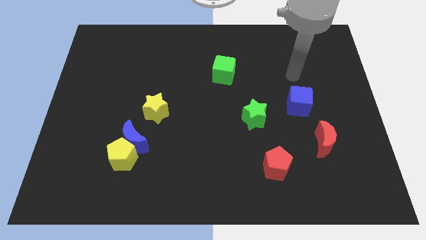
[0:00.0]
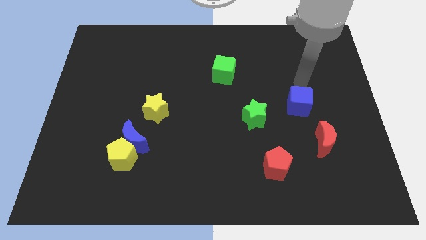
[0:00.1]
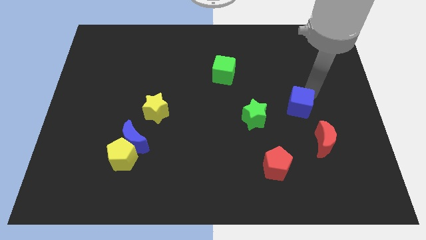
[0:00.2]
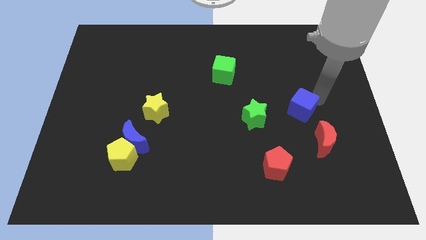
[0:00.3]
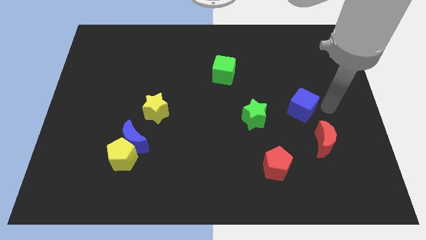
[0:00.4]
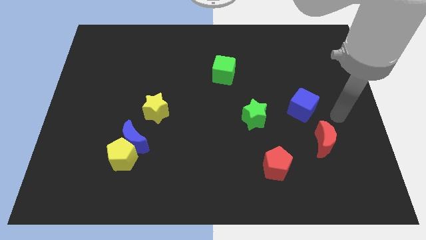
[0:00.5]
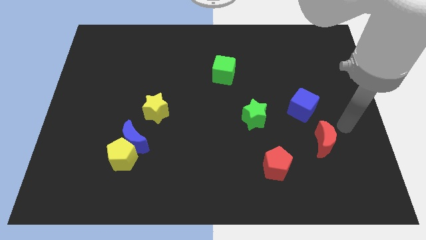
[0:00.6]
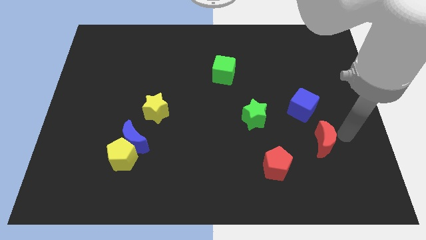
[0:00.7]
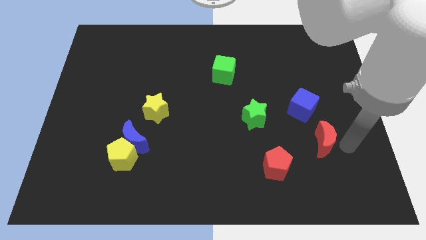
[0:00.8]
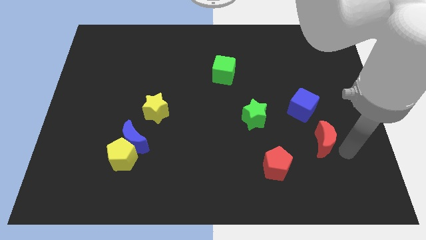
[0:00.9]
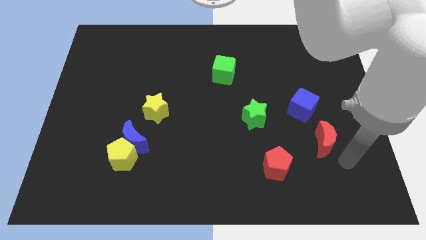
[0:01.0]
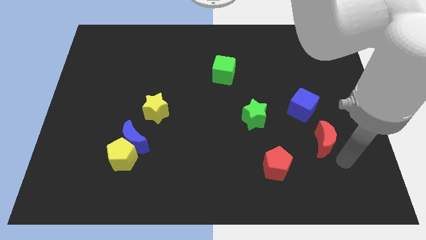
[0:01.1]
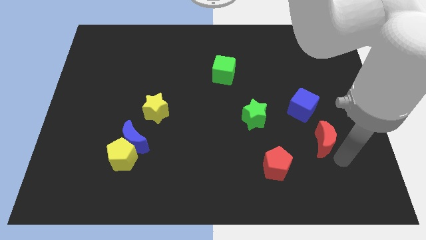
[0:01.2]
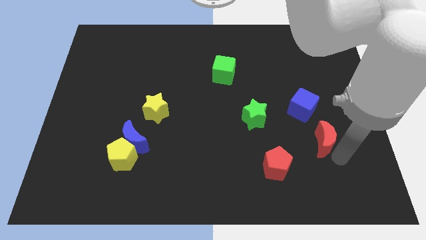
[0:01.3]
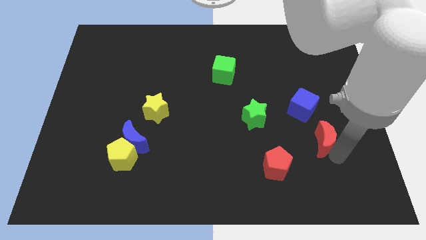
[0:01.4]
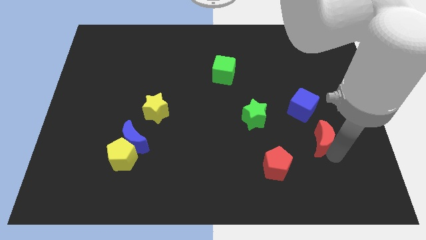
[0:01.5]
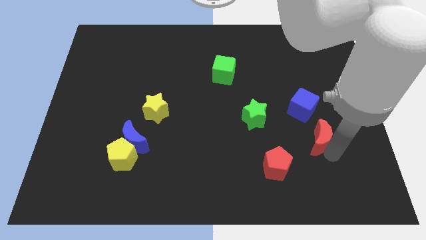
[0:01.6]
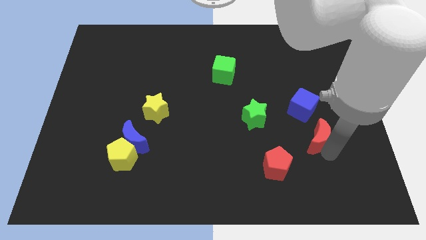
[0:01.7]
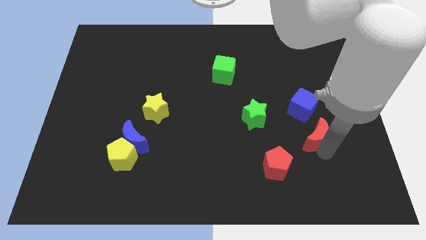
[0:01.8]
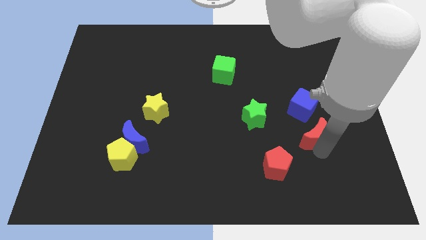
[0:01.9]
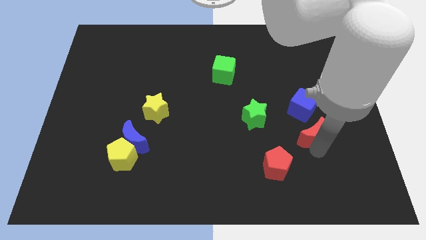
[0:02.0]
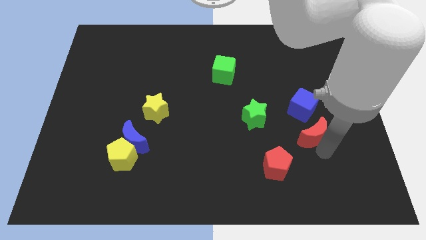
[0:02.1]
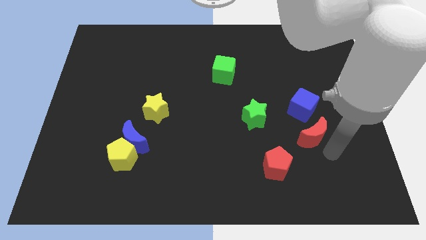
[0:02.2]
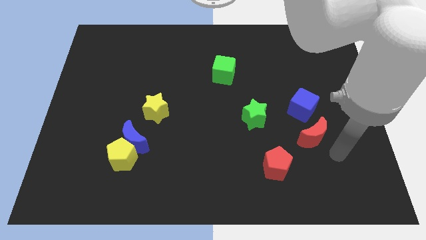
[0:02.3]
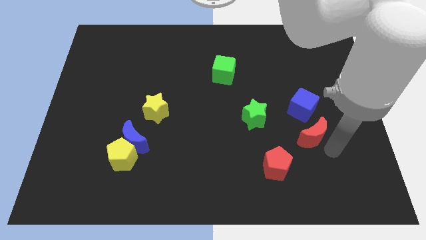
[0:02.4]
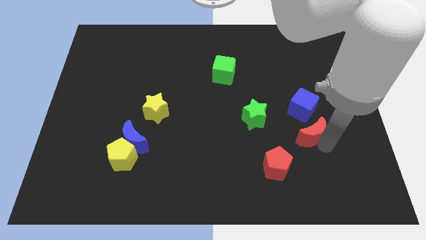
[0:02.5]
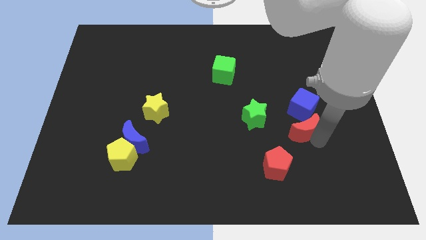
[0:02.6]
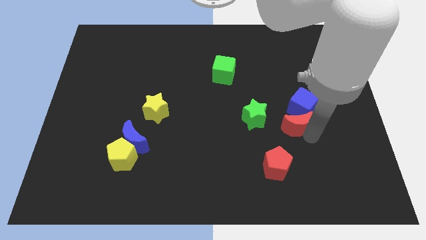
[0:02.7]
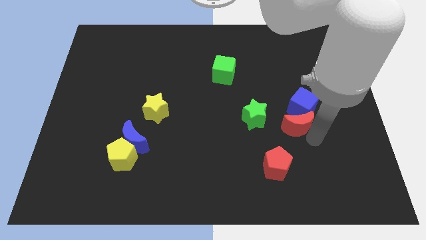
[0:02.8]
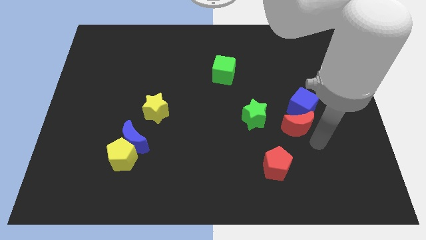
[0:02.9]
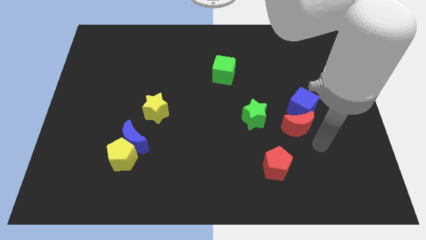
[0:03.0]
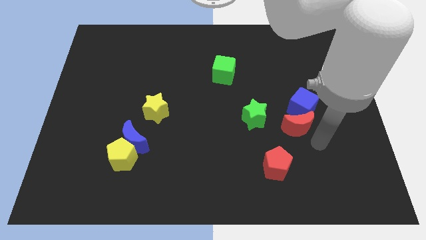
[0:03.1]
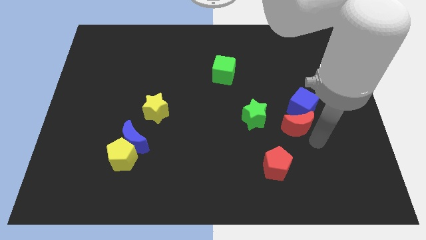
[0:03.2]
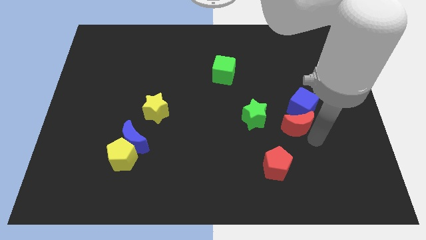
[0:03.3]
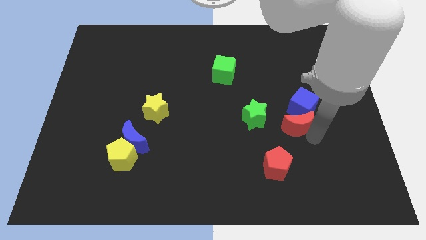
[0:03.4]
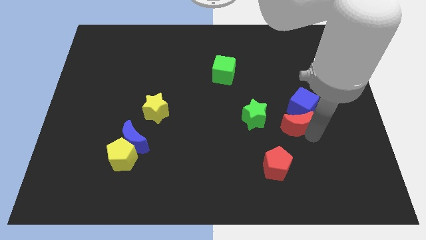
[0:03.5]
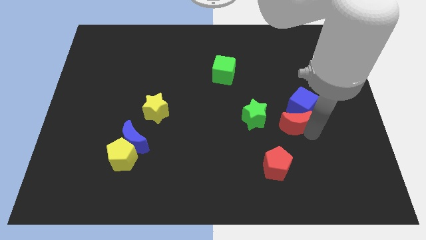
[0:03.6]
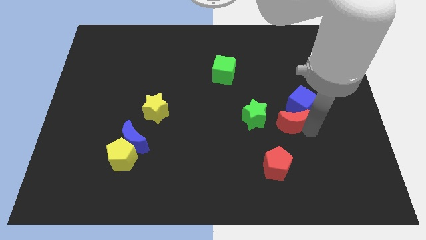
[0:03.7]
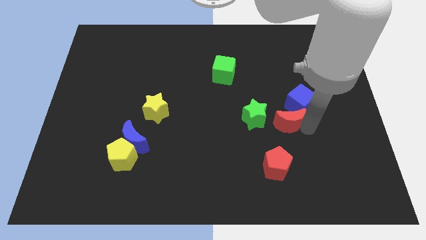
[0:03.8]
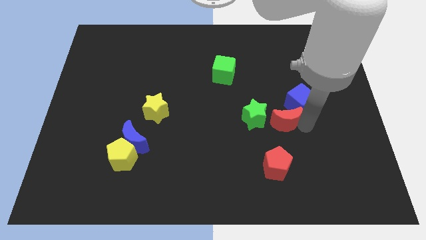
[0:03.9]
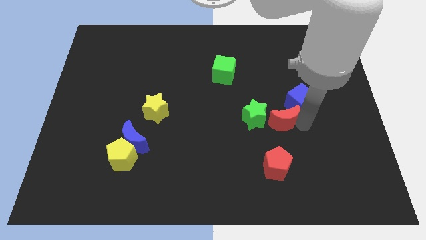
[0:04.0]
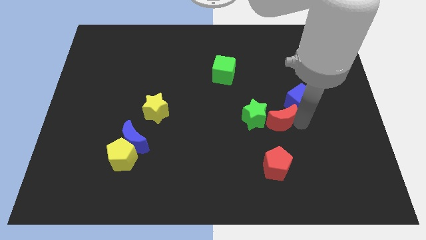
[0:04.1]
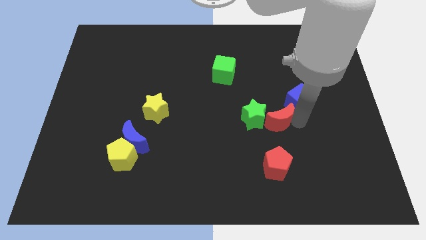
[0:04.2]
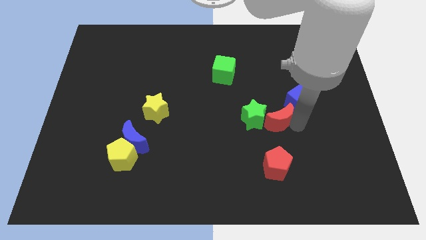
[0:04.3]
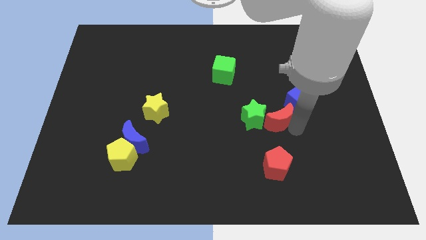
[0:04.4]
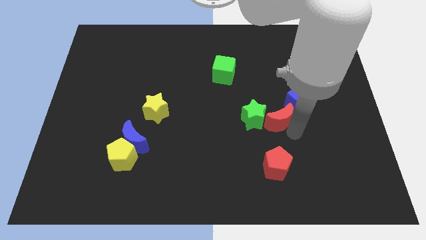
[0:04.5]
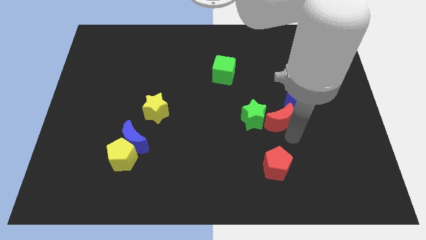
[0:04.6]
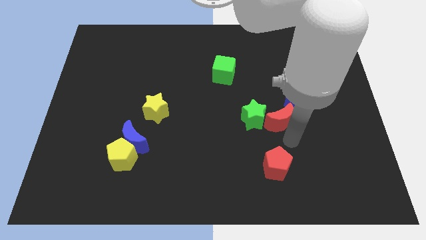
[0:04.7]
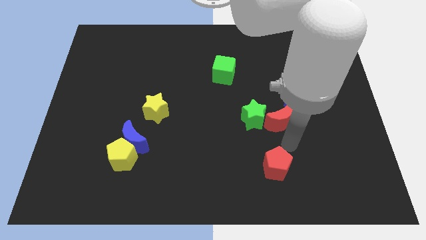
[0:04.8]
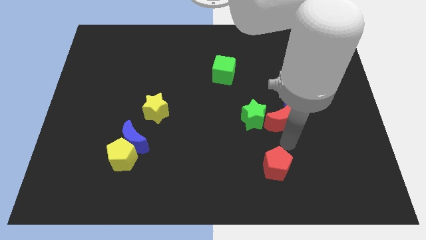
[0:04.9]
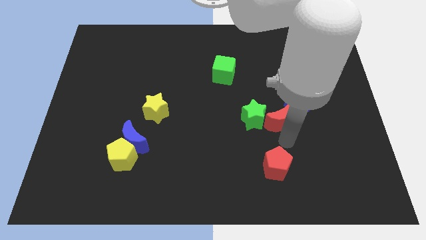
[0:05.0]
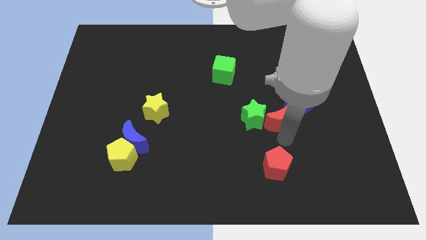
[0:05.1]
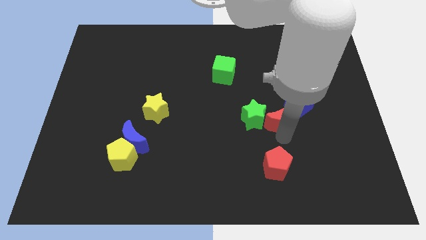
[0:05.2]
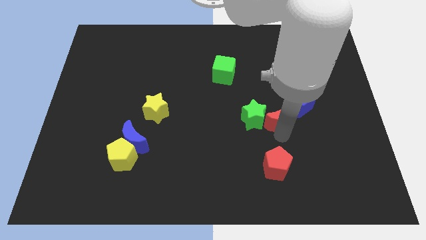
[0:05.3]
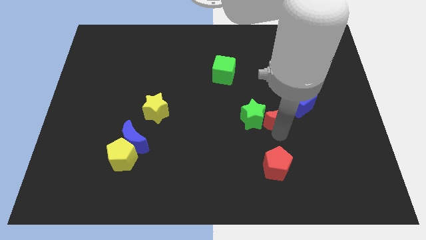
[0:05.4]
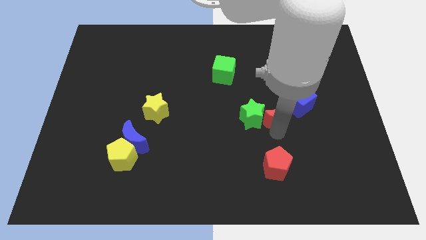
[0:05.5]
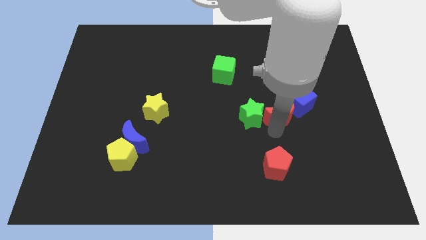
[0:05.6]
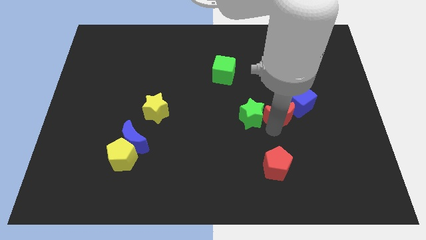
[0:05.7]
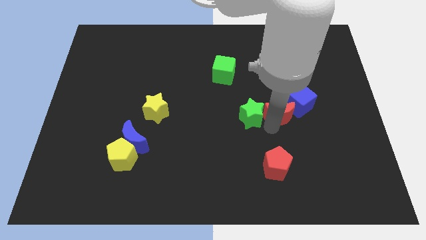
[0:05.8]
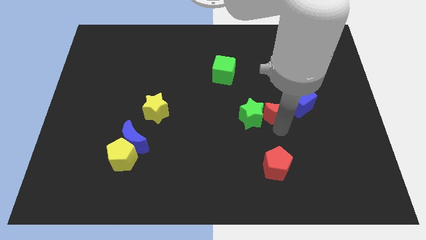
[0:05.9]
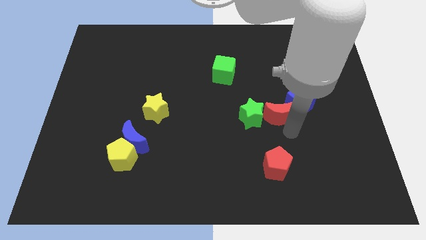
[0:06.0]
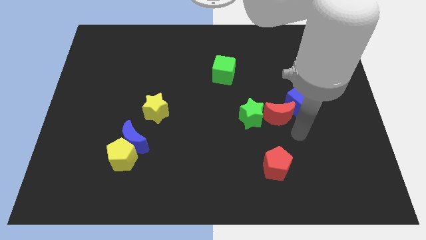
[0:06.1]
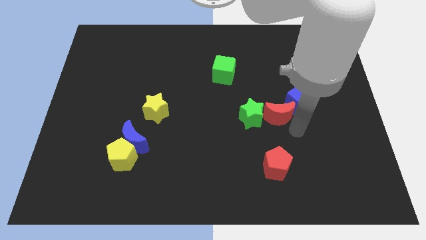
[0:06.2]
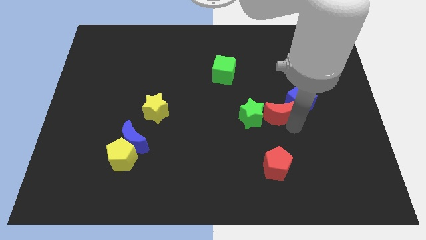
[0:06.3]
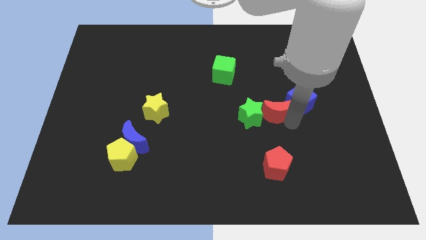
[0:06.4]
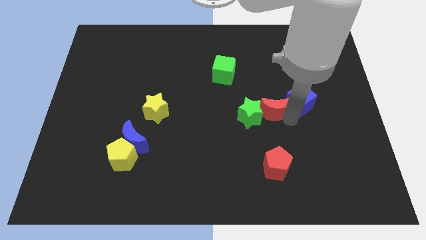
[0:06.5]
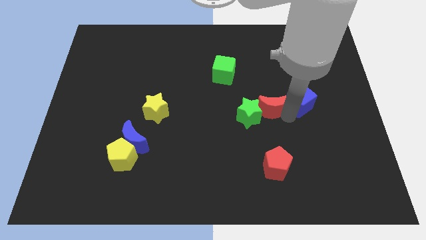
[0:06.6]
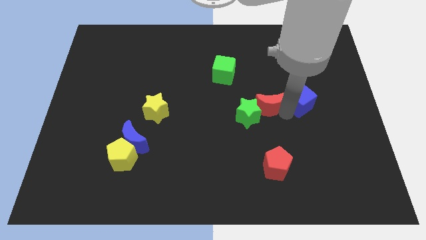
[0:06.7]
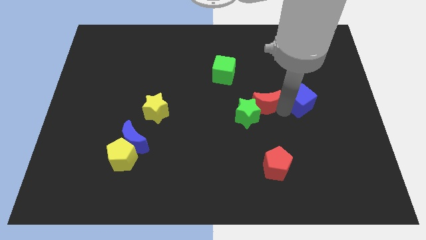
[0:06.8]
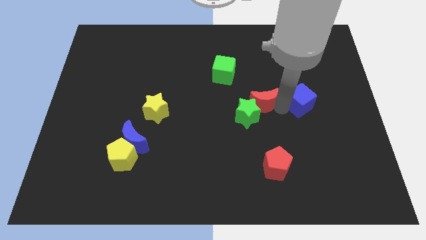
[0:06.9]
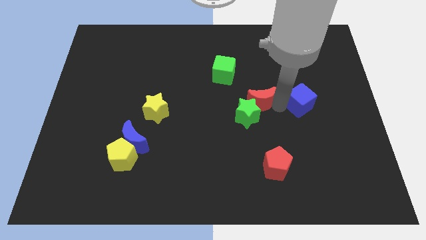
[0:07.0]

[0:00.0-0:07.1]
slide the red moon to the bottom right of the green cube

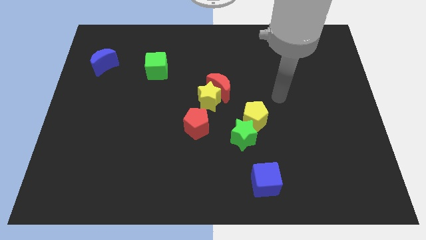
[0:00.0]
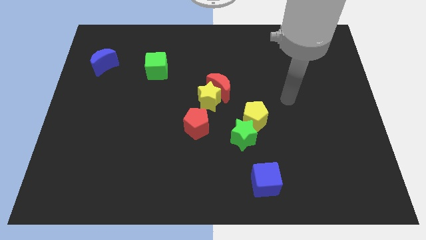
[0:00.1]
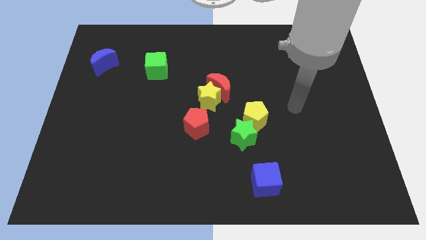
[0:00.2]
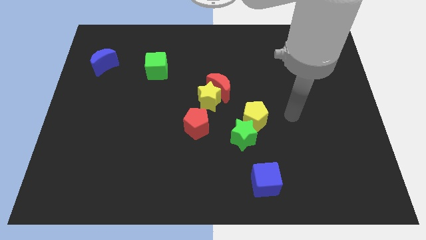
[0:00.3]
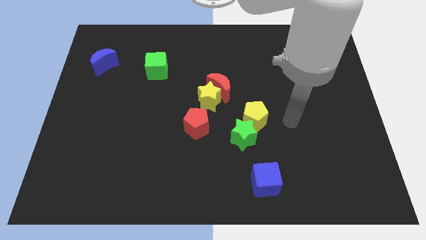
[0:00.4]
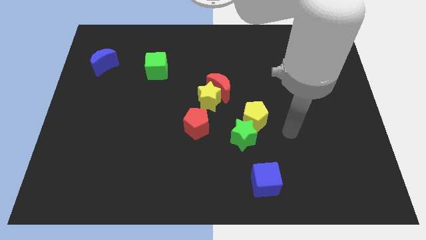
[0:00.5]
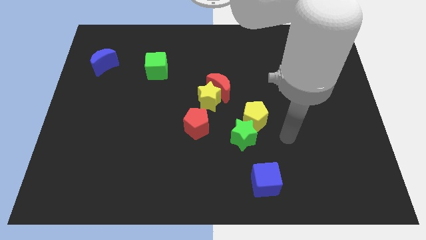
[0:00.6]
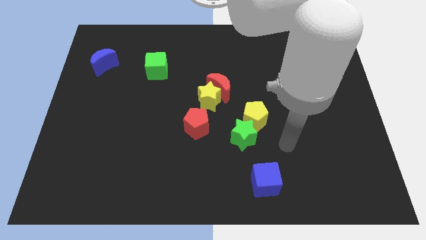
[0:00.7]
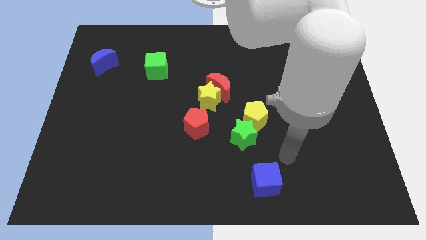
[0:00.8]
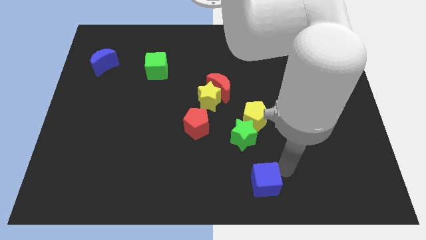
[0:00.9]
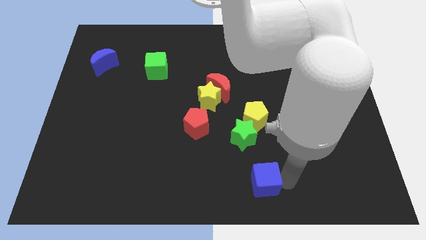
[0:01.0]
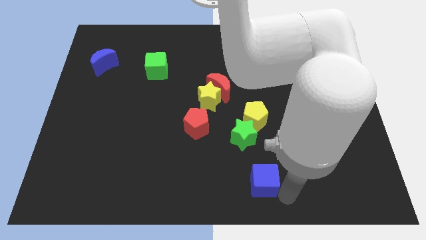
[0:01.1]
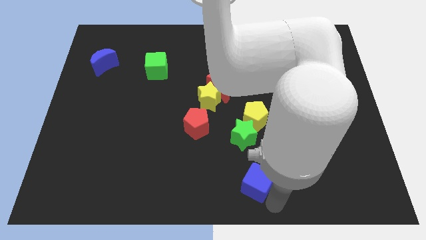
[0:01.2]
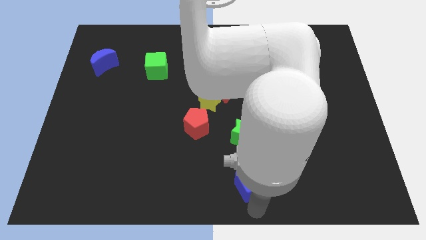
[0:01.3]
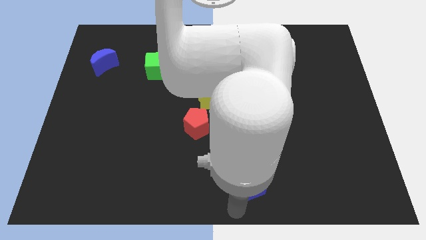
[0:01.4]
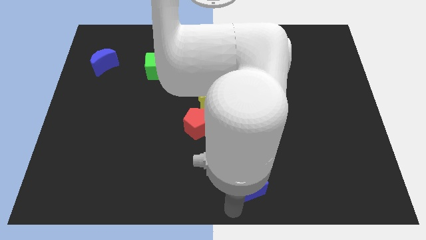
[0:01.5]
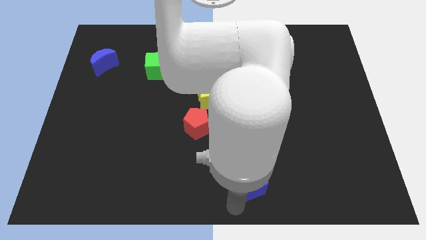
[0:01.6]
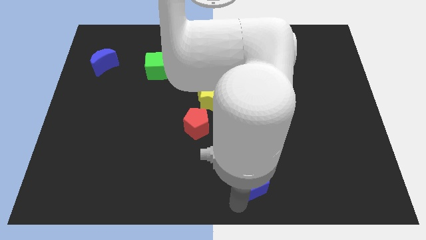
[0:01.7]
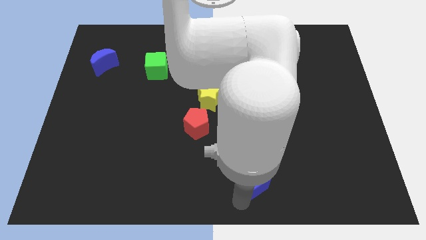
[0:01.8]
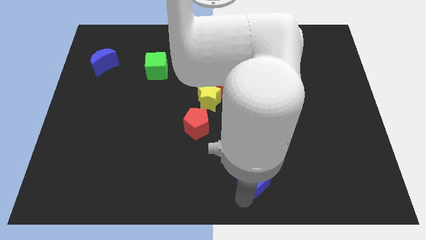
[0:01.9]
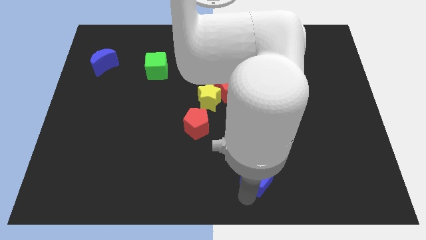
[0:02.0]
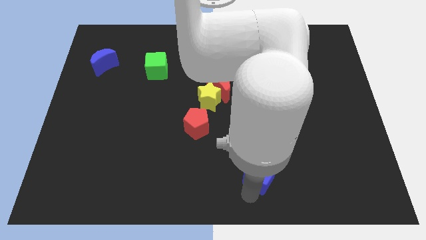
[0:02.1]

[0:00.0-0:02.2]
push the blue cube diagonally down and to the right of the green star
